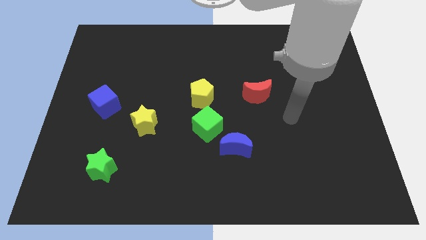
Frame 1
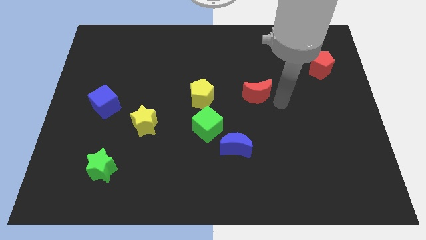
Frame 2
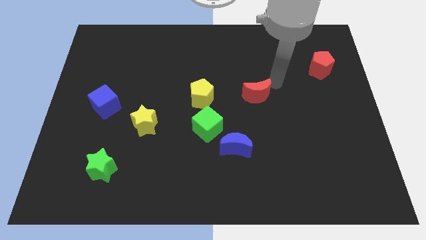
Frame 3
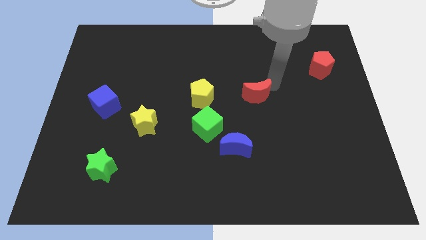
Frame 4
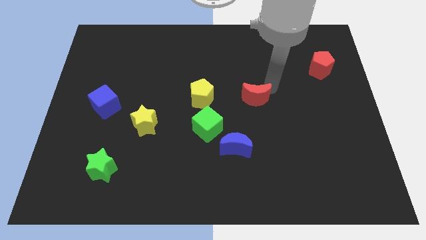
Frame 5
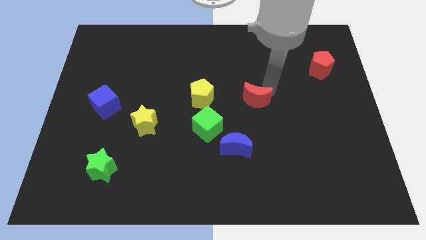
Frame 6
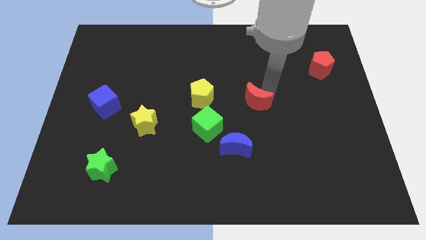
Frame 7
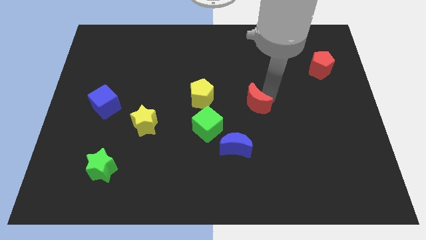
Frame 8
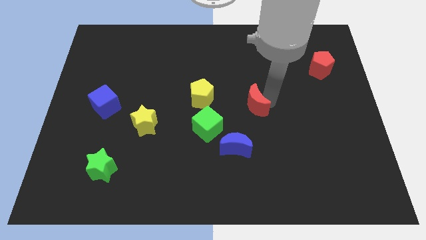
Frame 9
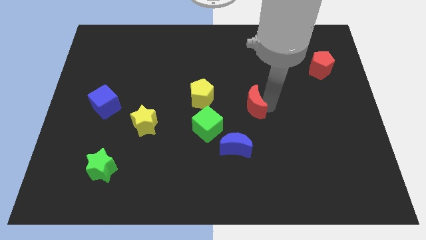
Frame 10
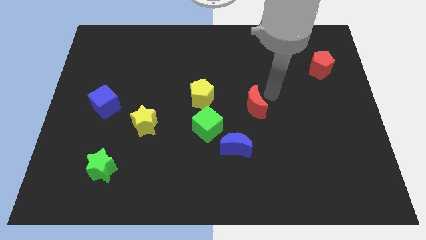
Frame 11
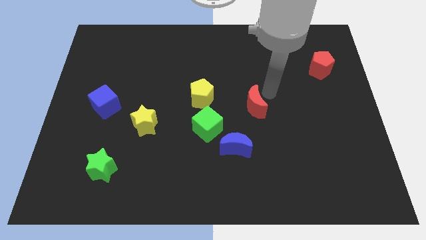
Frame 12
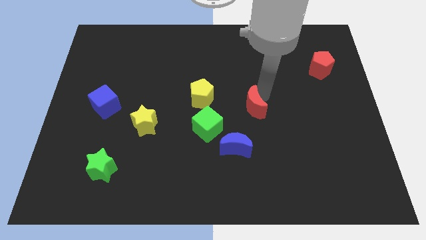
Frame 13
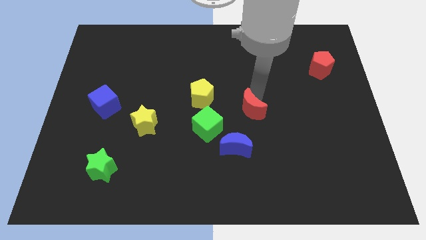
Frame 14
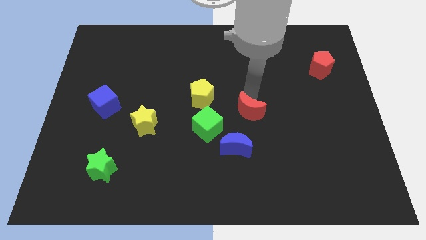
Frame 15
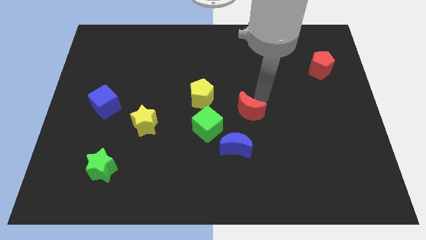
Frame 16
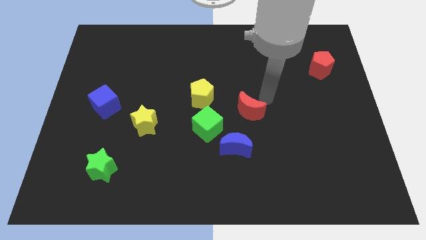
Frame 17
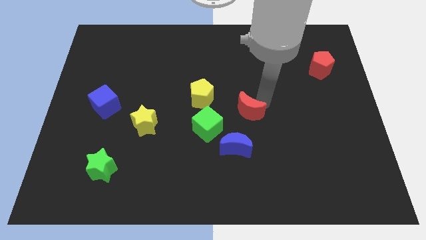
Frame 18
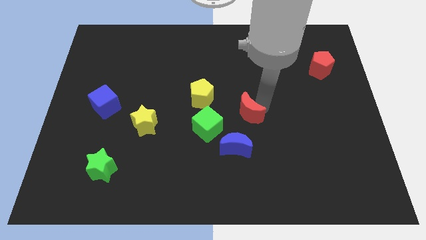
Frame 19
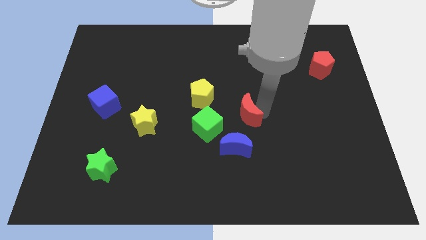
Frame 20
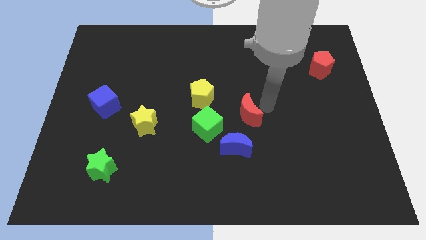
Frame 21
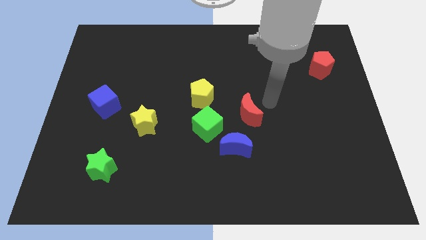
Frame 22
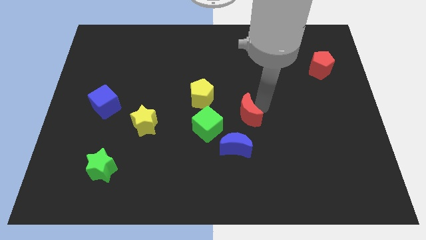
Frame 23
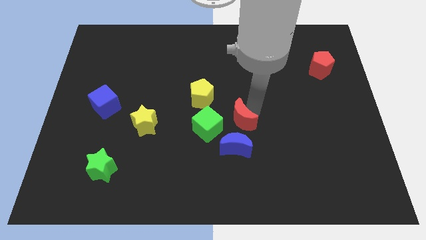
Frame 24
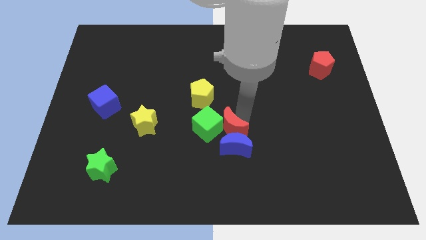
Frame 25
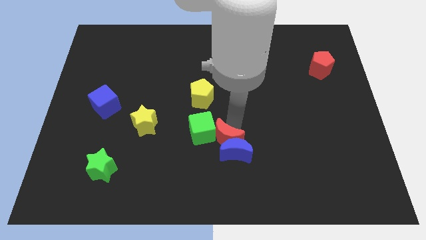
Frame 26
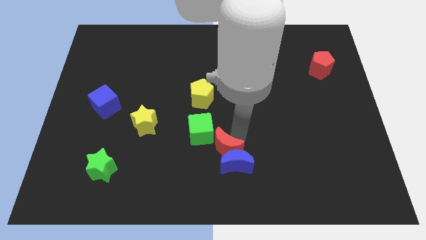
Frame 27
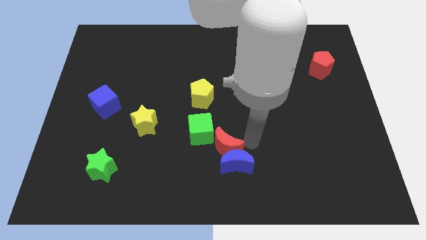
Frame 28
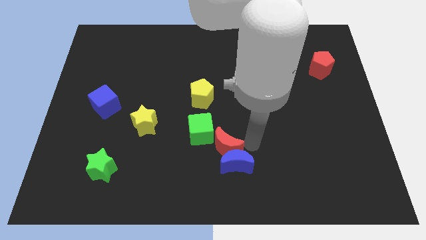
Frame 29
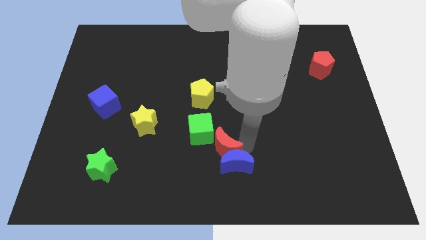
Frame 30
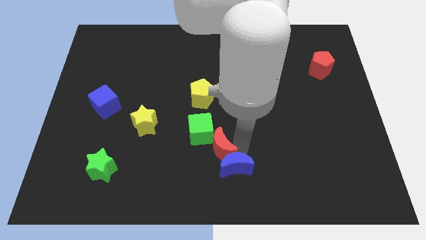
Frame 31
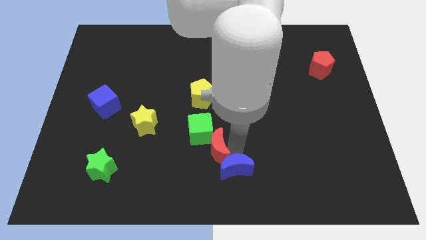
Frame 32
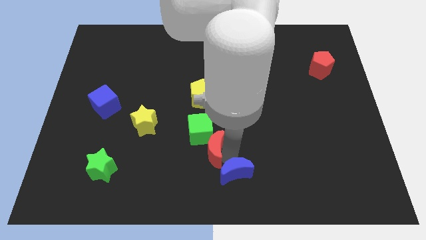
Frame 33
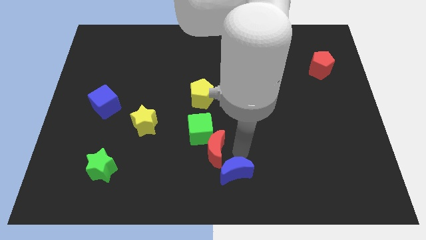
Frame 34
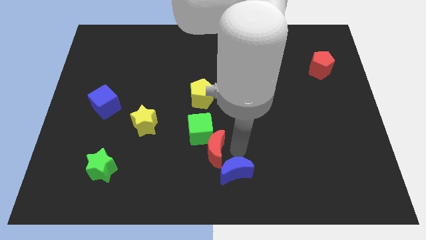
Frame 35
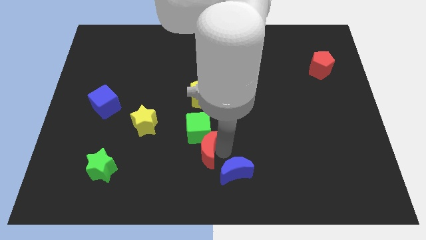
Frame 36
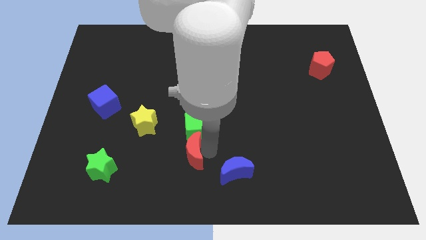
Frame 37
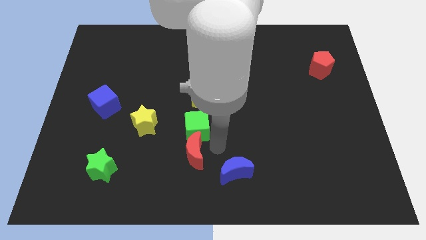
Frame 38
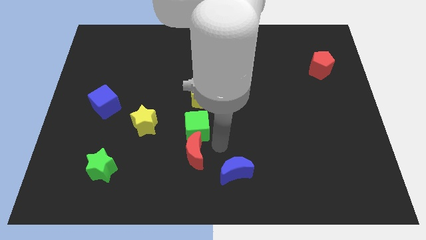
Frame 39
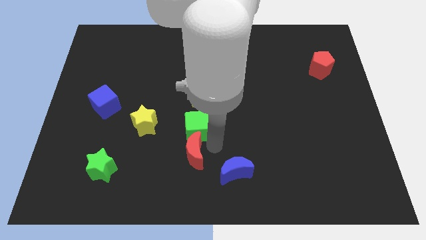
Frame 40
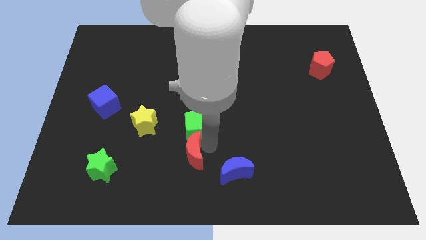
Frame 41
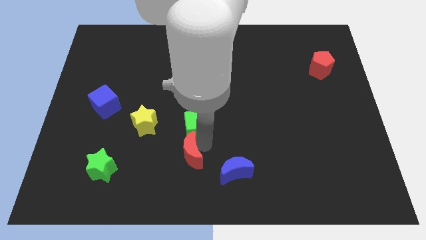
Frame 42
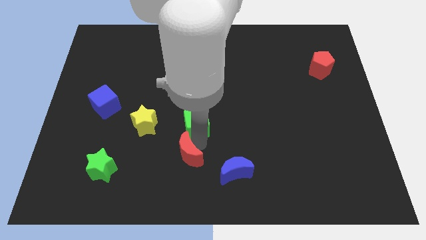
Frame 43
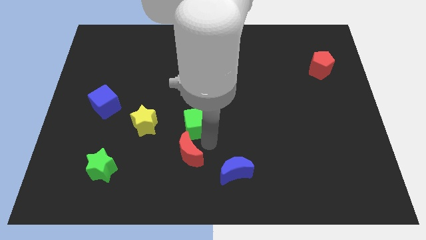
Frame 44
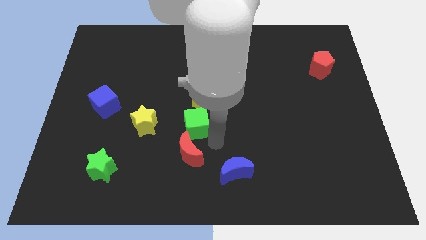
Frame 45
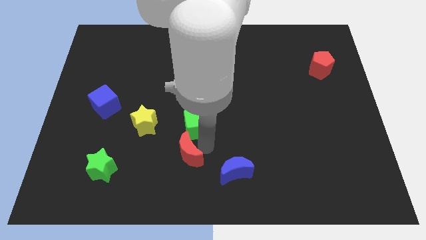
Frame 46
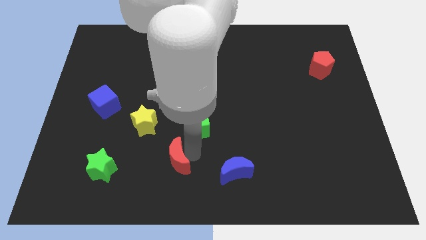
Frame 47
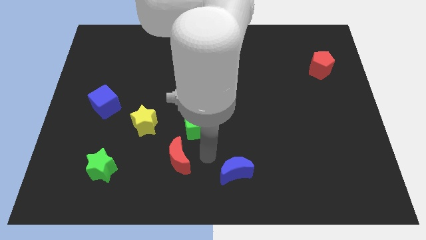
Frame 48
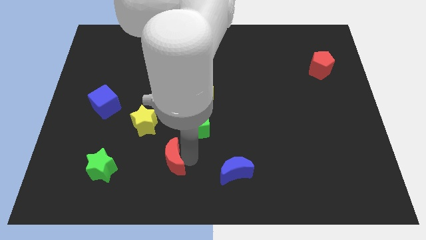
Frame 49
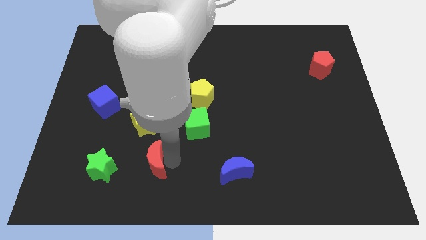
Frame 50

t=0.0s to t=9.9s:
push the red moon to the bottom of the yellow star

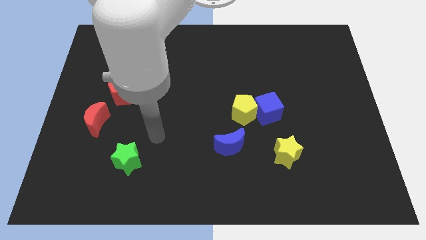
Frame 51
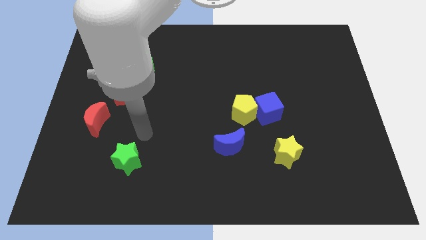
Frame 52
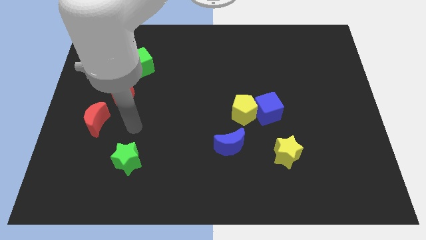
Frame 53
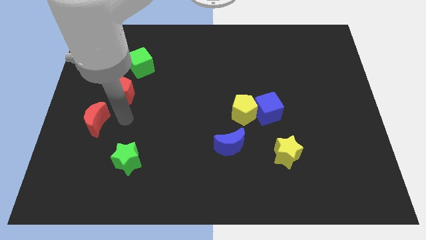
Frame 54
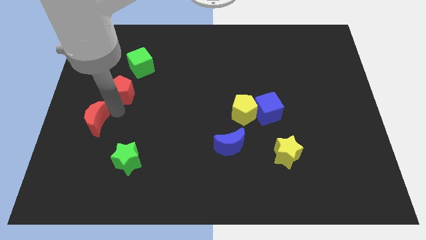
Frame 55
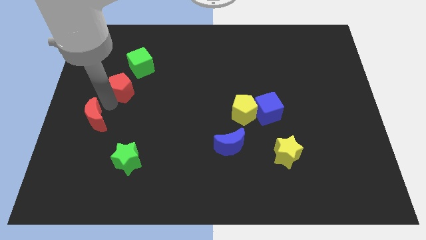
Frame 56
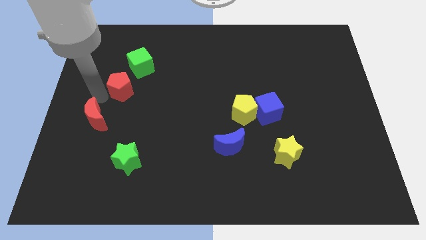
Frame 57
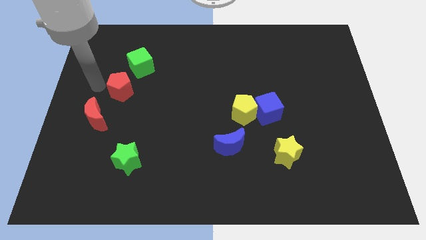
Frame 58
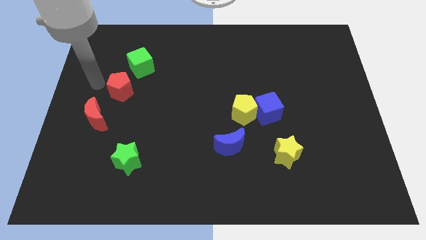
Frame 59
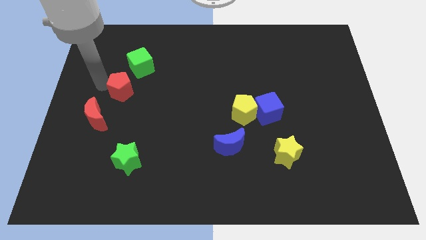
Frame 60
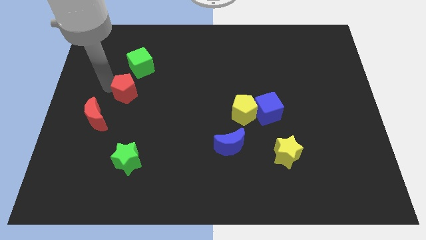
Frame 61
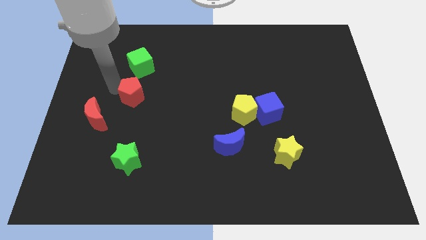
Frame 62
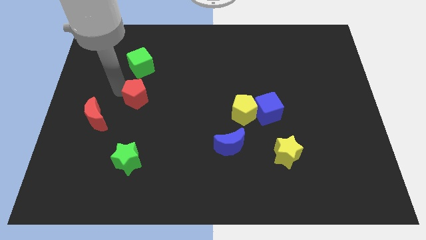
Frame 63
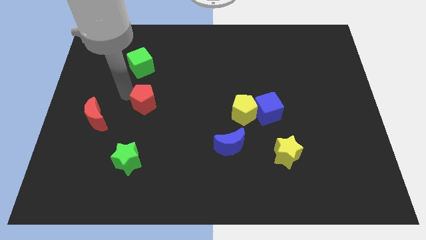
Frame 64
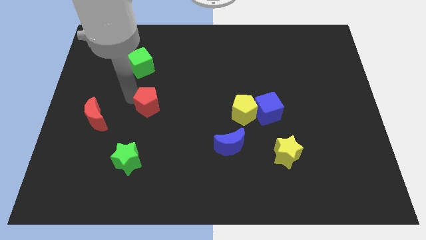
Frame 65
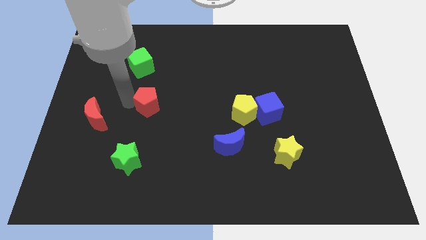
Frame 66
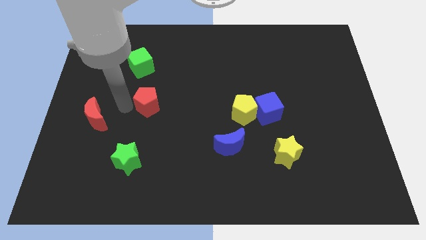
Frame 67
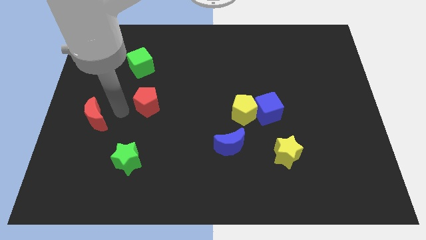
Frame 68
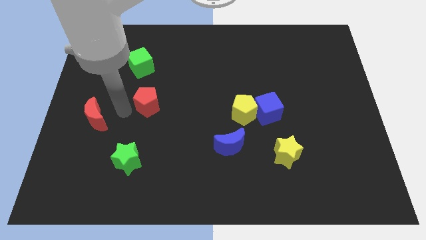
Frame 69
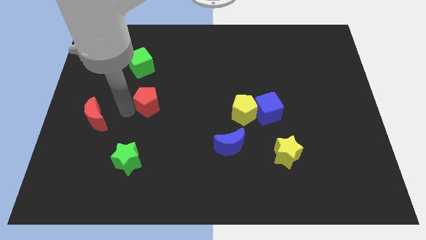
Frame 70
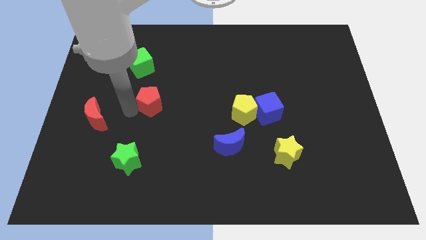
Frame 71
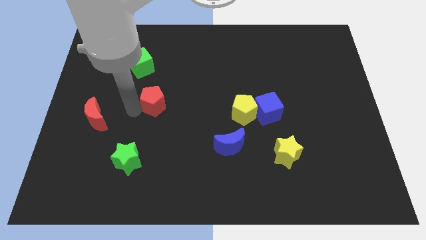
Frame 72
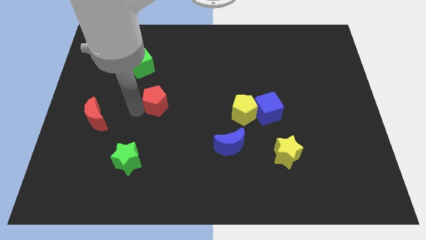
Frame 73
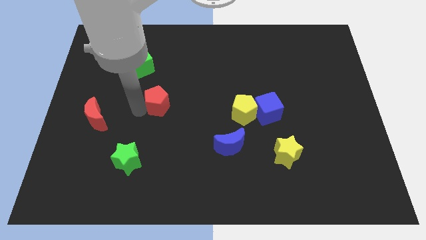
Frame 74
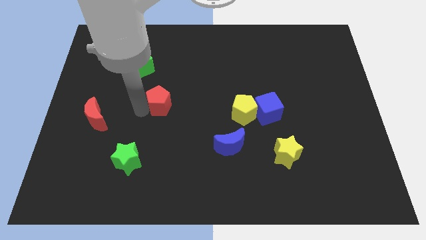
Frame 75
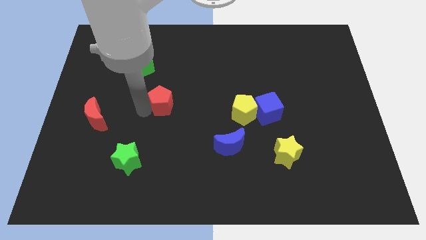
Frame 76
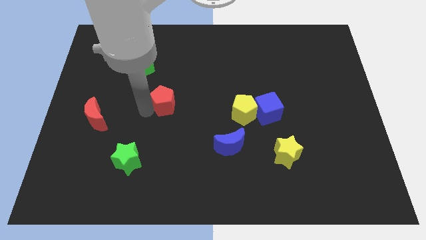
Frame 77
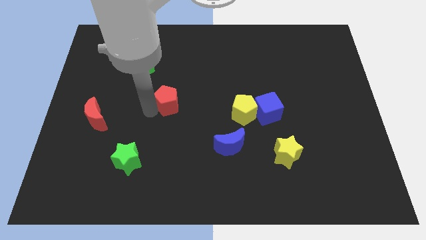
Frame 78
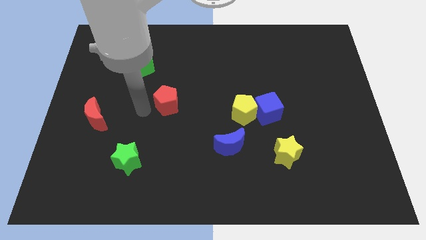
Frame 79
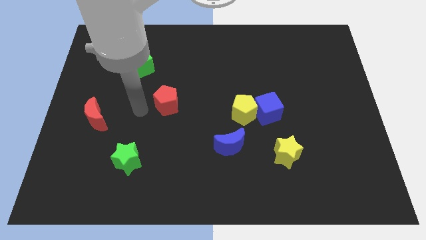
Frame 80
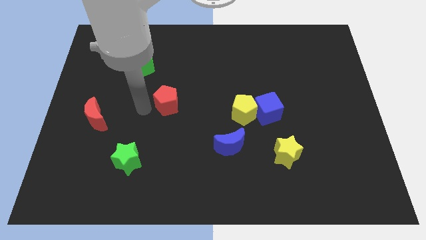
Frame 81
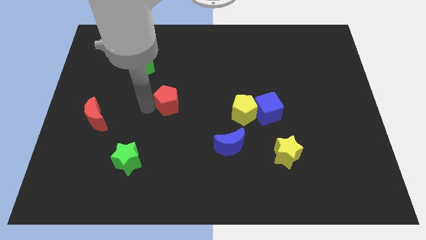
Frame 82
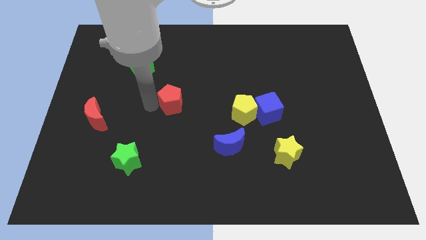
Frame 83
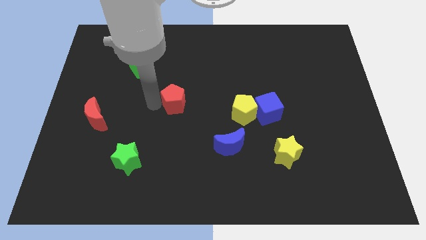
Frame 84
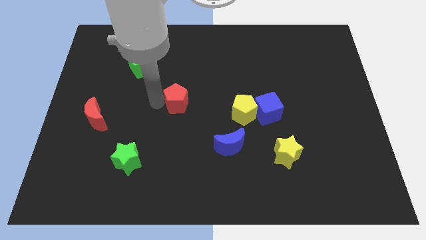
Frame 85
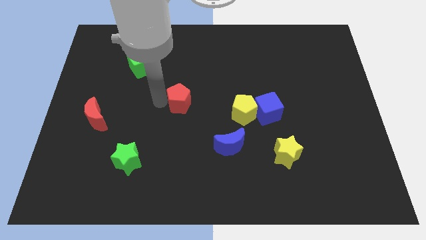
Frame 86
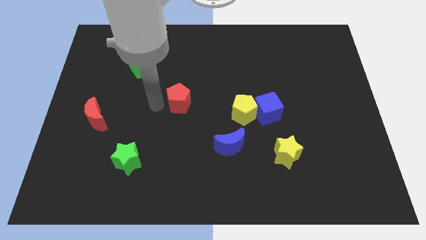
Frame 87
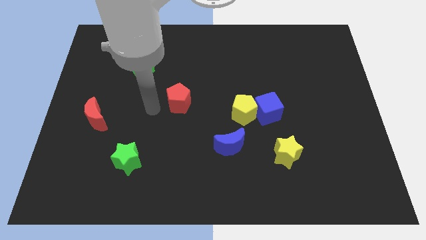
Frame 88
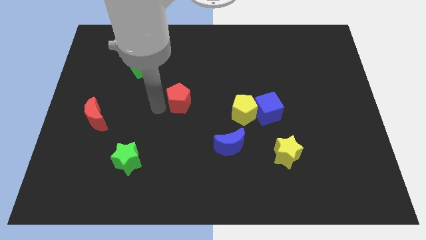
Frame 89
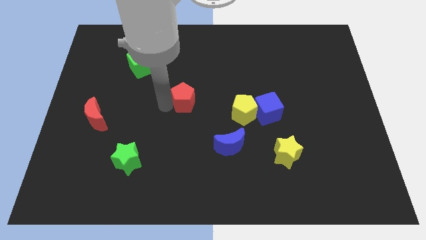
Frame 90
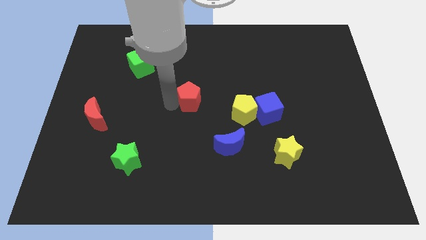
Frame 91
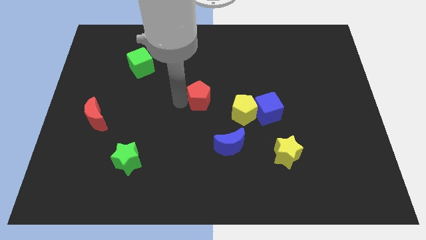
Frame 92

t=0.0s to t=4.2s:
push the red pentagon to the top left of the yellow pentagon
